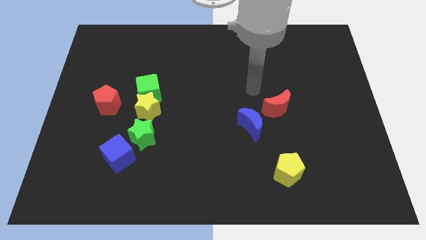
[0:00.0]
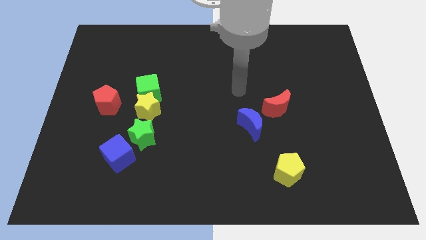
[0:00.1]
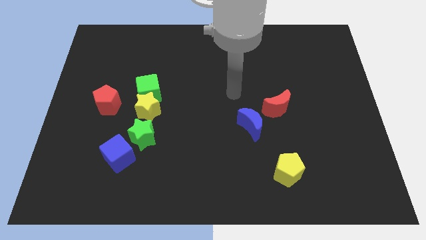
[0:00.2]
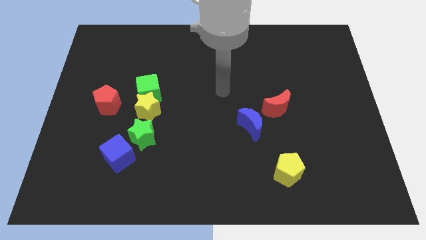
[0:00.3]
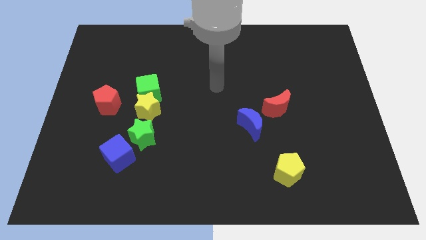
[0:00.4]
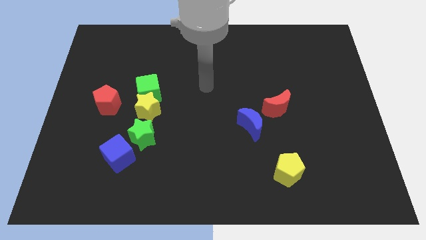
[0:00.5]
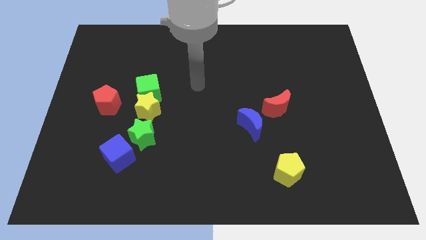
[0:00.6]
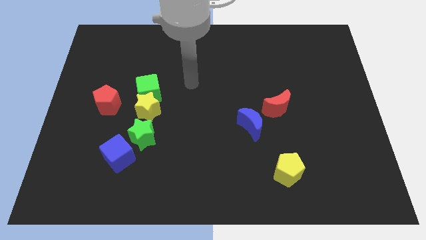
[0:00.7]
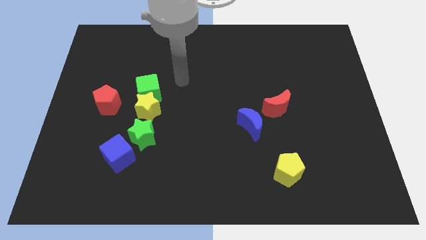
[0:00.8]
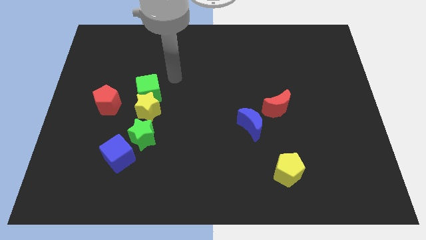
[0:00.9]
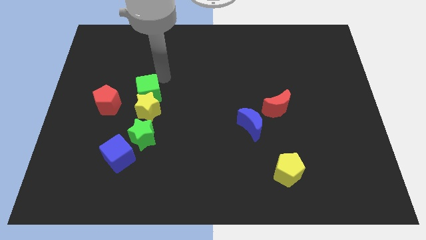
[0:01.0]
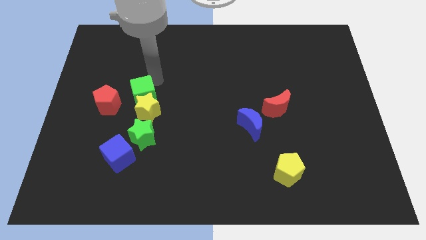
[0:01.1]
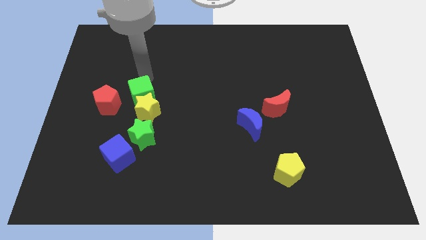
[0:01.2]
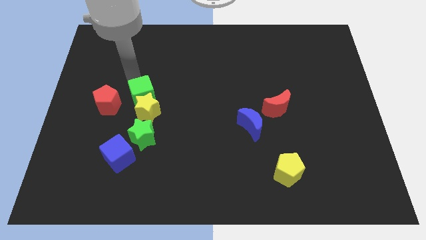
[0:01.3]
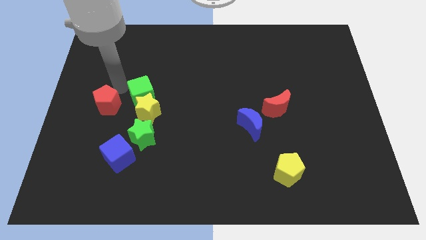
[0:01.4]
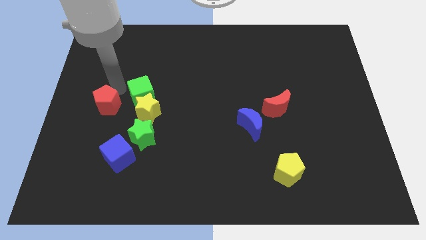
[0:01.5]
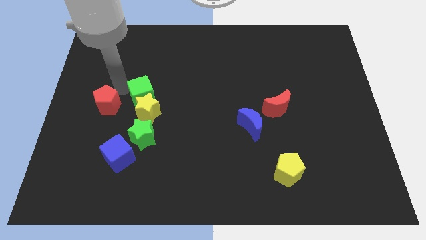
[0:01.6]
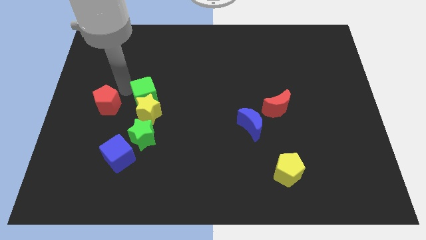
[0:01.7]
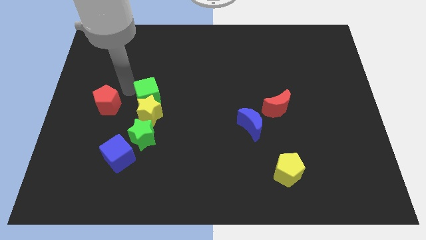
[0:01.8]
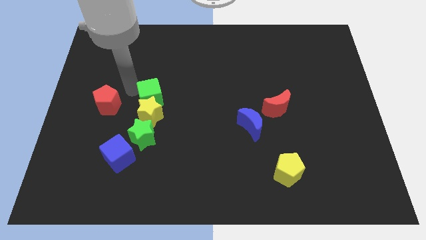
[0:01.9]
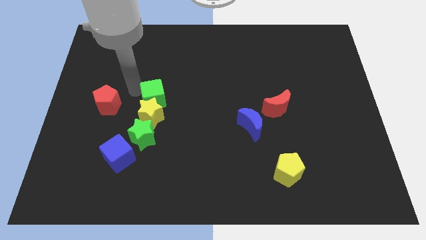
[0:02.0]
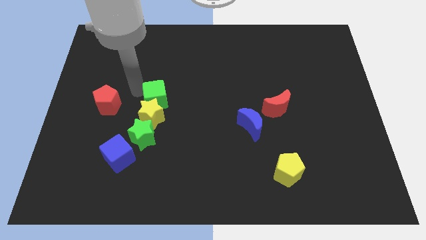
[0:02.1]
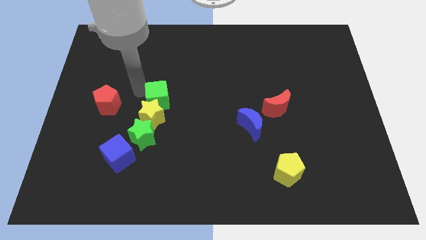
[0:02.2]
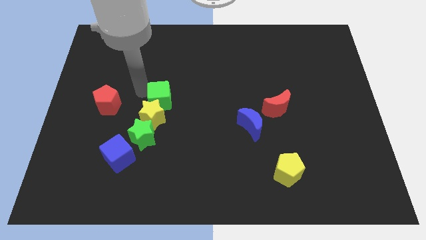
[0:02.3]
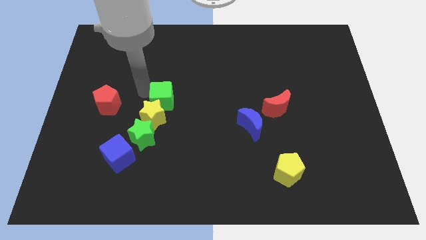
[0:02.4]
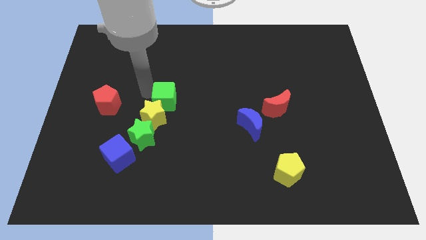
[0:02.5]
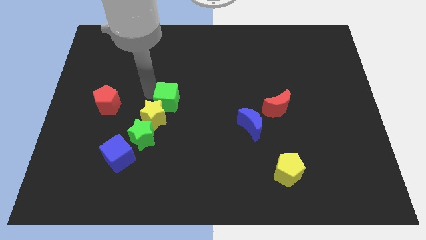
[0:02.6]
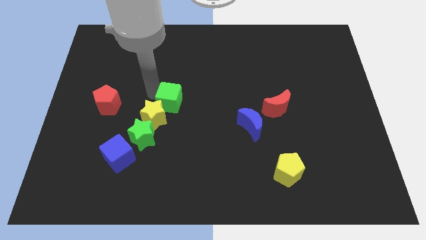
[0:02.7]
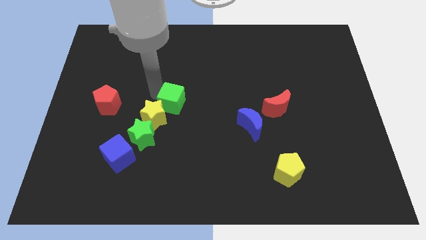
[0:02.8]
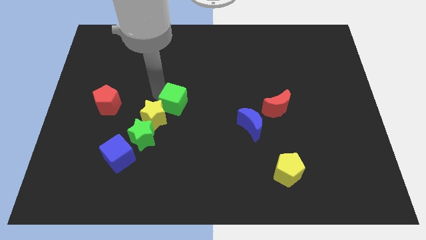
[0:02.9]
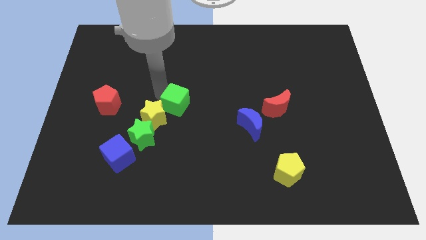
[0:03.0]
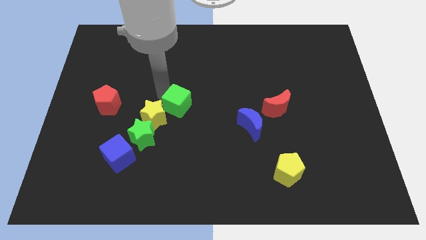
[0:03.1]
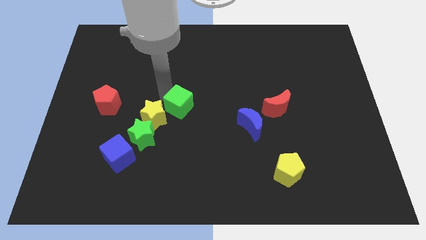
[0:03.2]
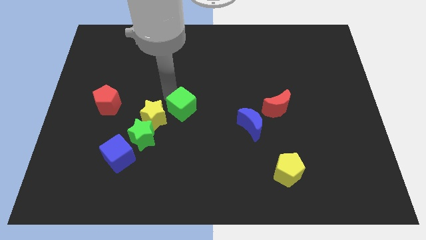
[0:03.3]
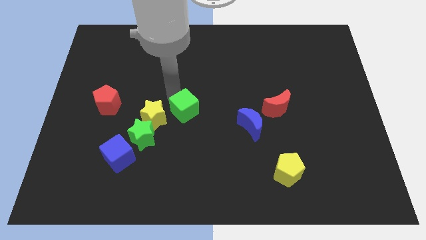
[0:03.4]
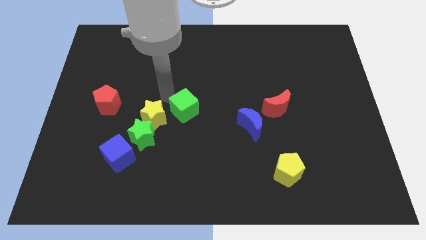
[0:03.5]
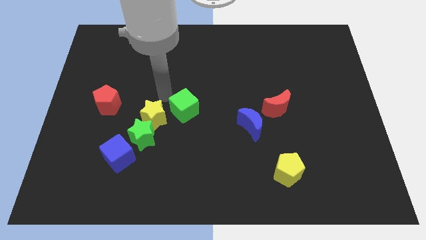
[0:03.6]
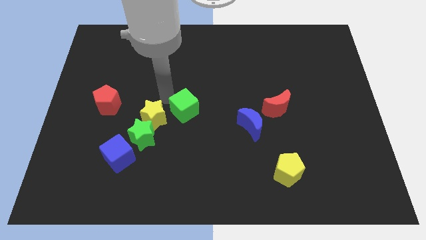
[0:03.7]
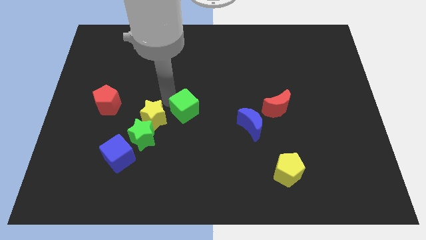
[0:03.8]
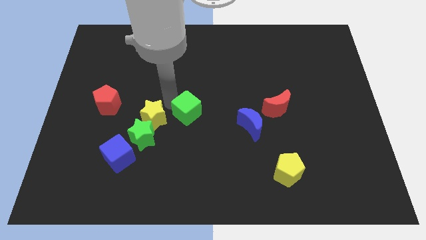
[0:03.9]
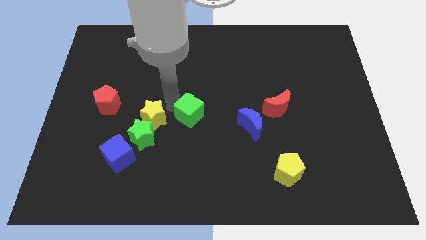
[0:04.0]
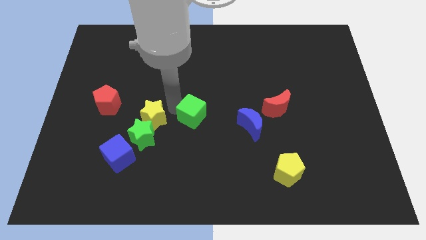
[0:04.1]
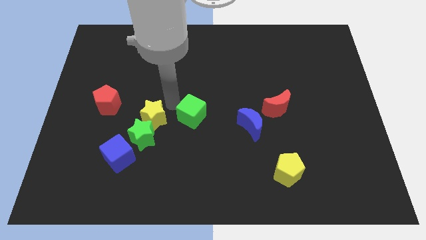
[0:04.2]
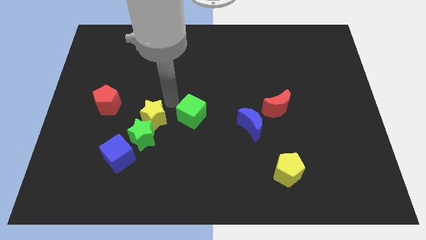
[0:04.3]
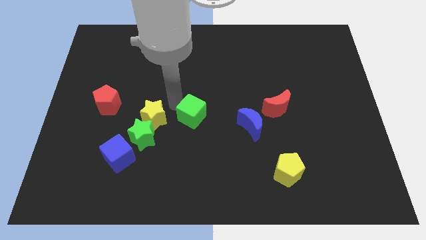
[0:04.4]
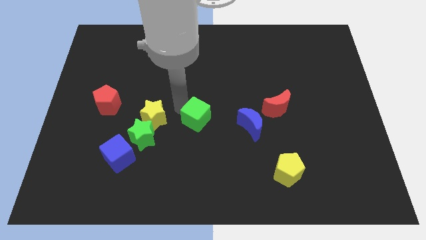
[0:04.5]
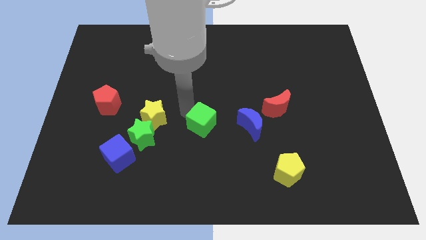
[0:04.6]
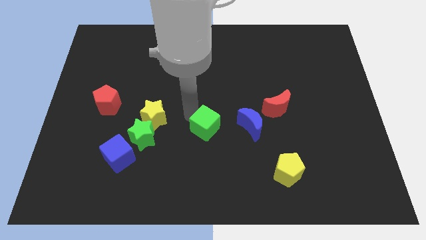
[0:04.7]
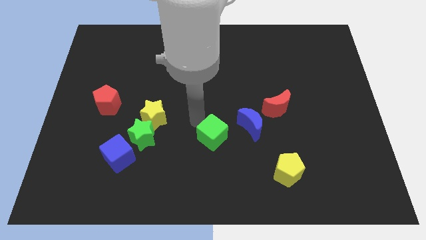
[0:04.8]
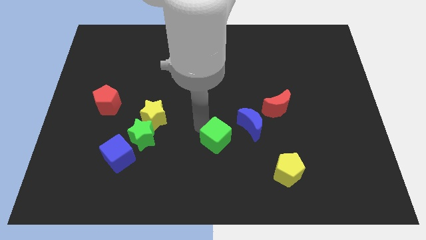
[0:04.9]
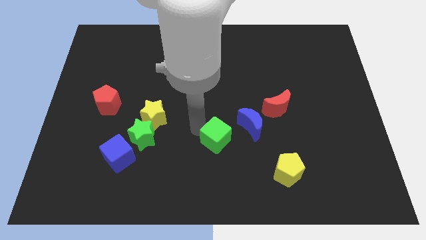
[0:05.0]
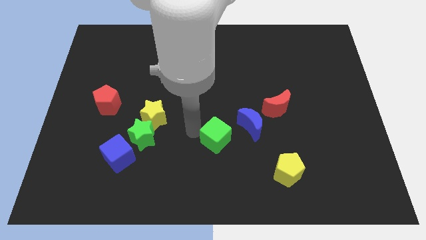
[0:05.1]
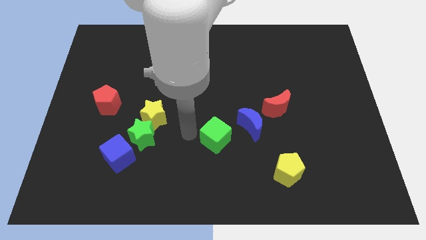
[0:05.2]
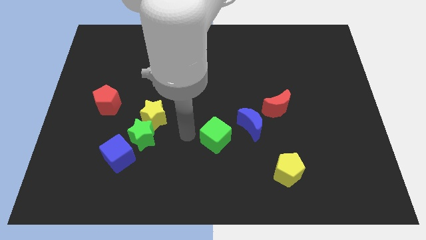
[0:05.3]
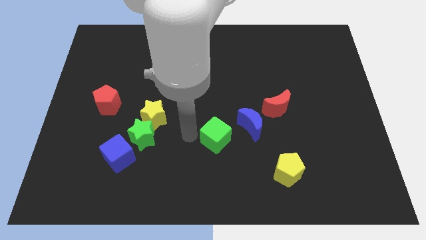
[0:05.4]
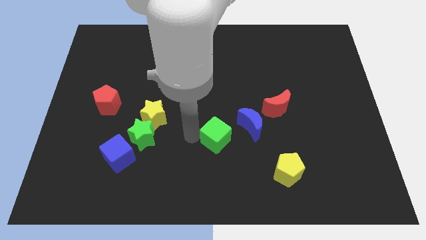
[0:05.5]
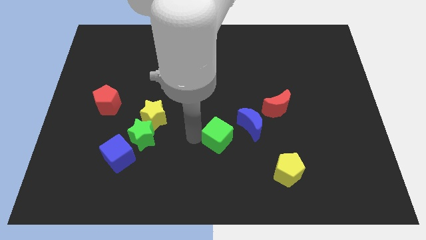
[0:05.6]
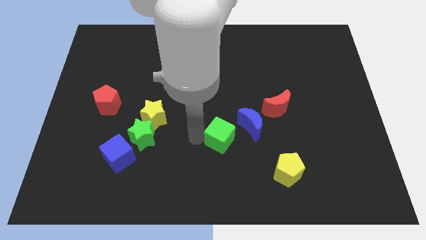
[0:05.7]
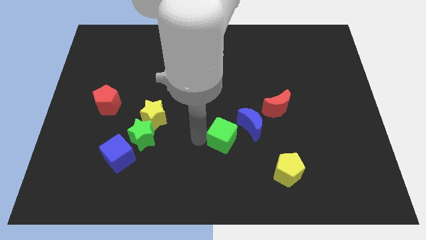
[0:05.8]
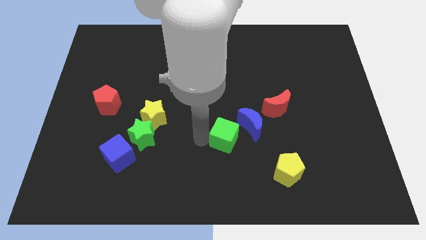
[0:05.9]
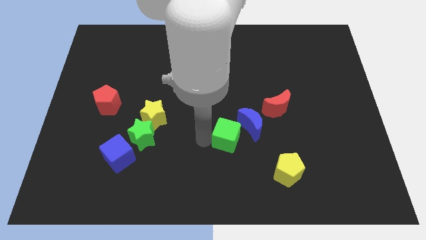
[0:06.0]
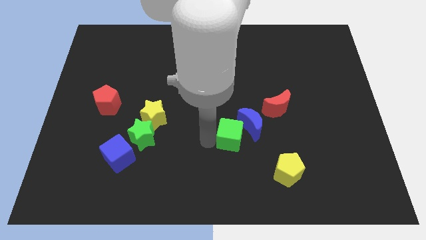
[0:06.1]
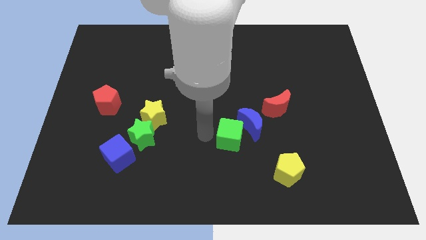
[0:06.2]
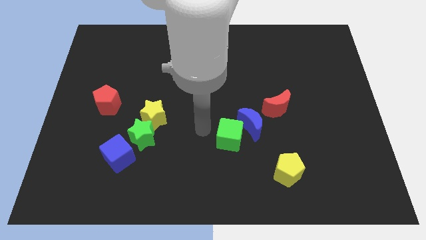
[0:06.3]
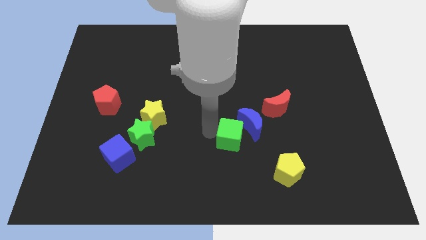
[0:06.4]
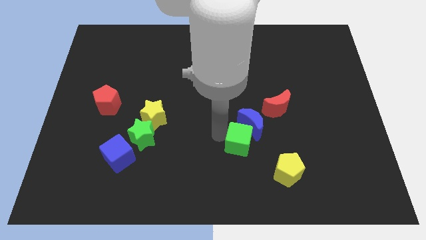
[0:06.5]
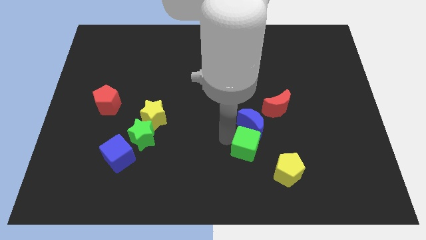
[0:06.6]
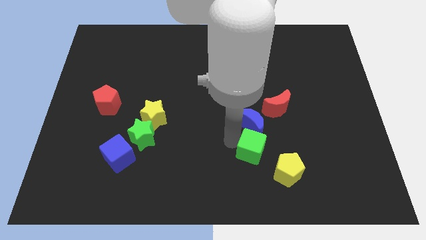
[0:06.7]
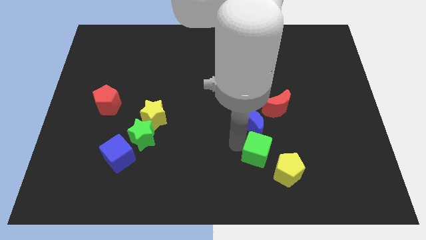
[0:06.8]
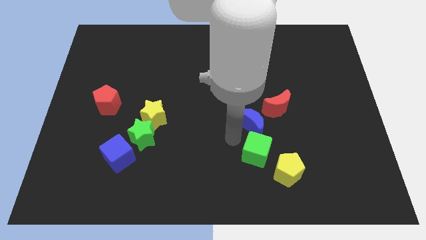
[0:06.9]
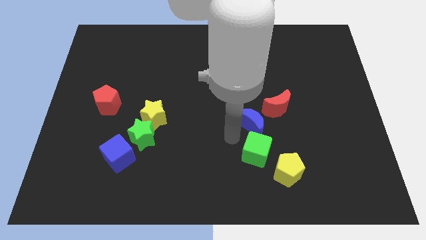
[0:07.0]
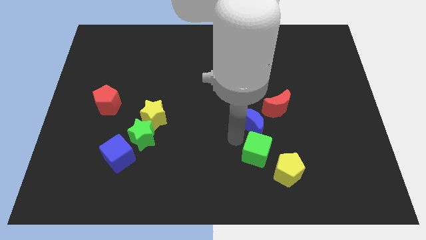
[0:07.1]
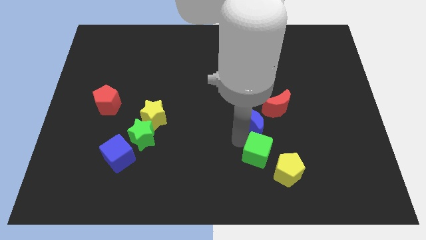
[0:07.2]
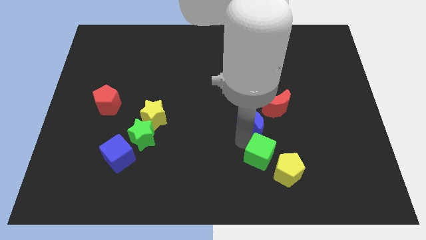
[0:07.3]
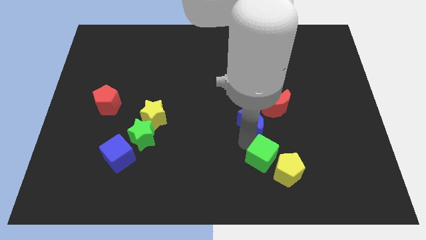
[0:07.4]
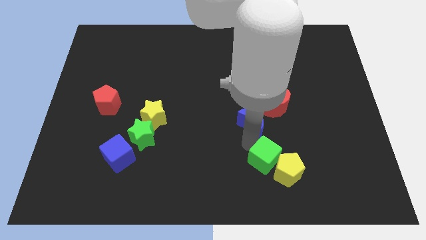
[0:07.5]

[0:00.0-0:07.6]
move the green cube next to the yellow pentagon
